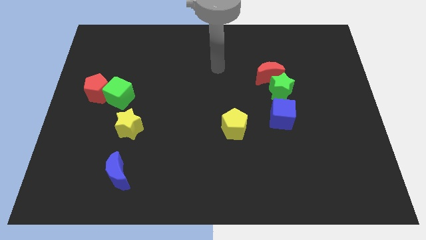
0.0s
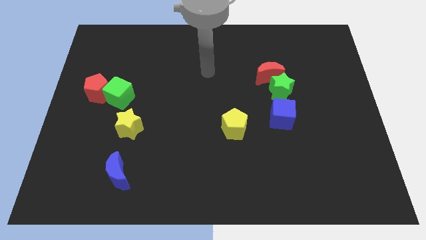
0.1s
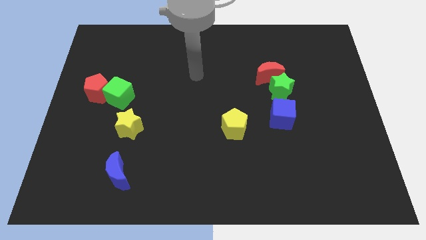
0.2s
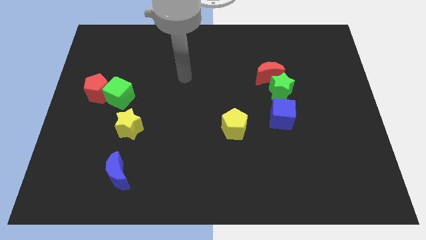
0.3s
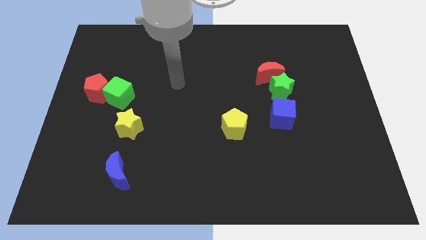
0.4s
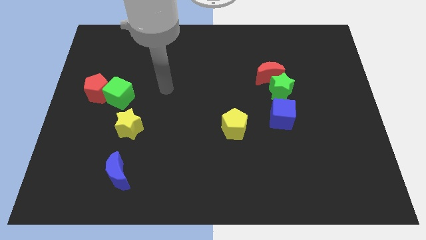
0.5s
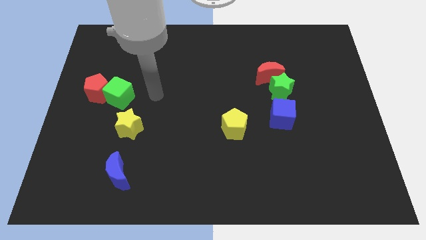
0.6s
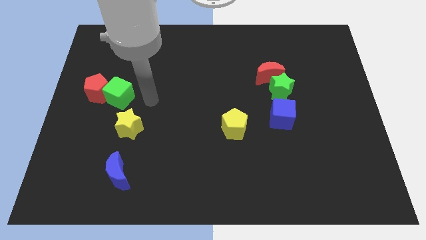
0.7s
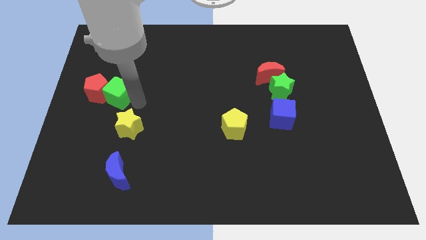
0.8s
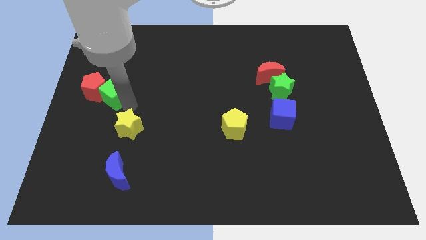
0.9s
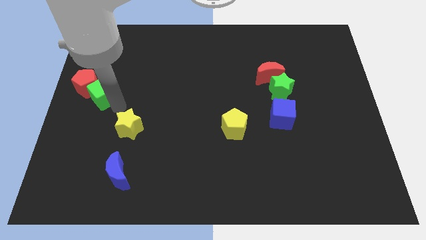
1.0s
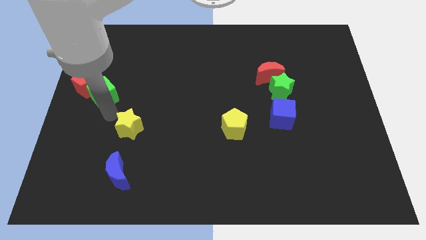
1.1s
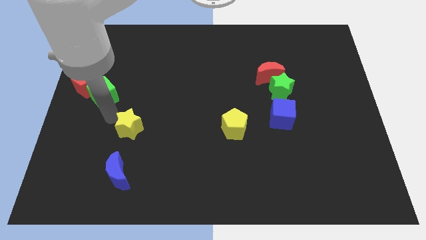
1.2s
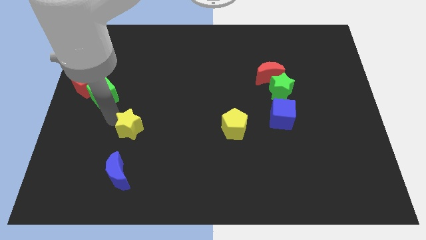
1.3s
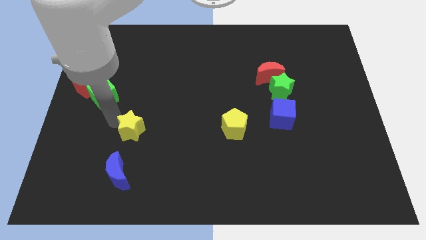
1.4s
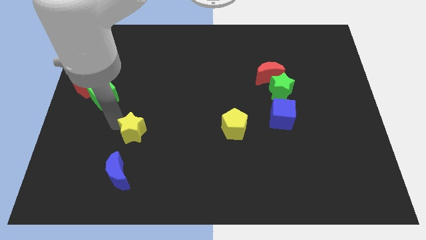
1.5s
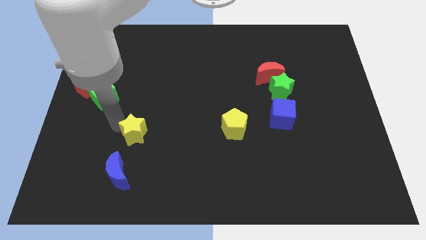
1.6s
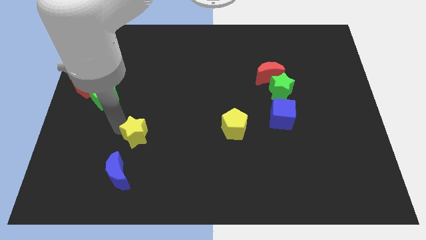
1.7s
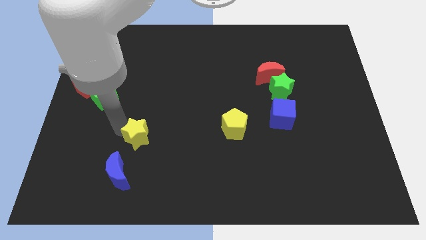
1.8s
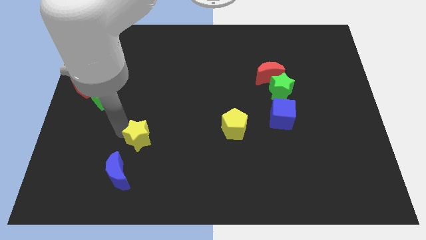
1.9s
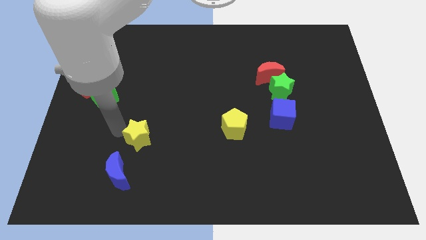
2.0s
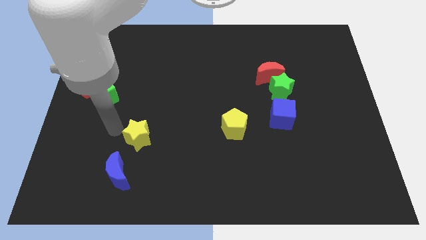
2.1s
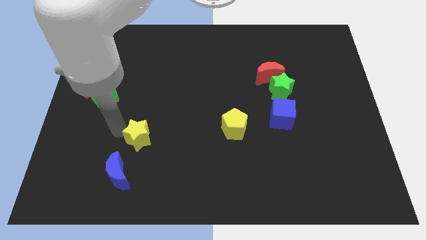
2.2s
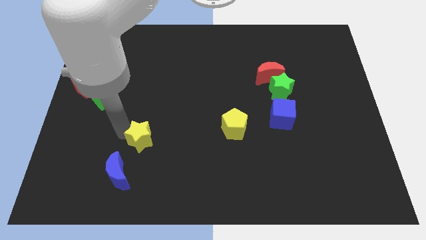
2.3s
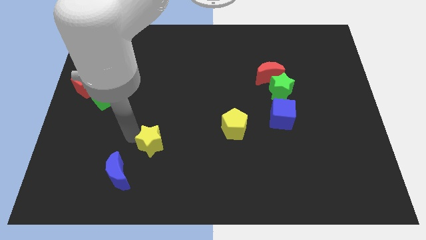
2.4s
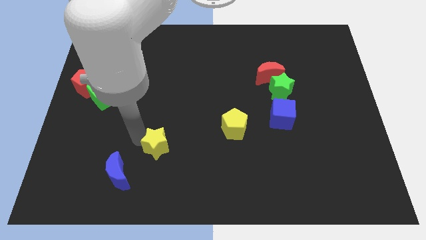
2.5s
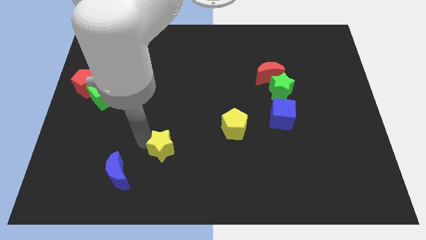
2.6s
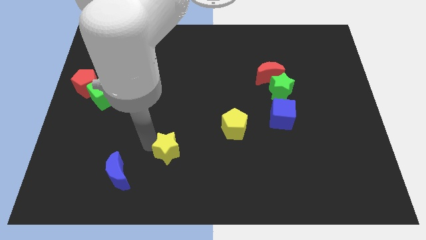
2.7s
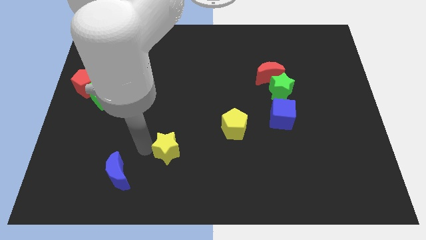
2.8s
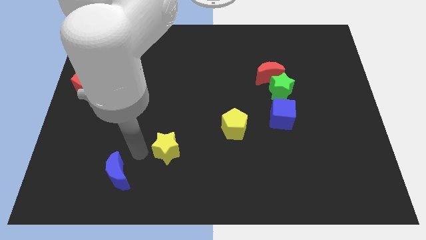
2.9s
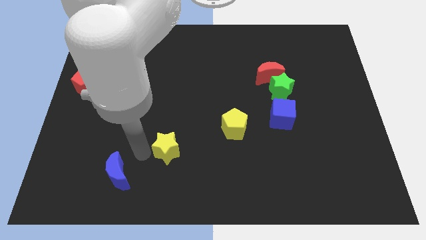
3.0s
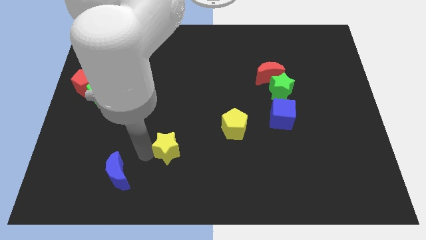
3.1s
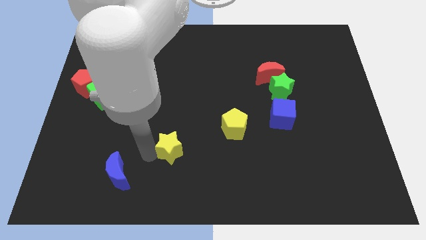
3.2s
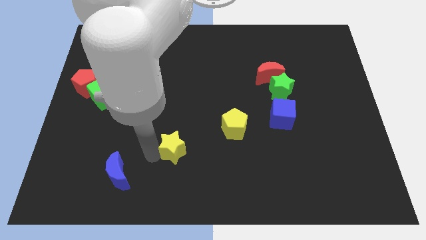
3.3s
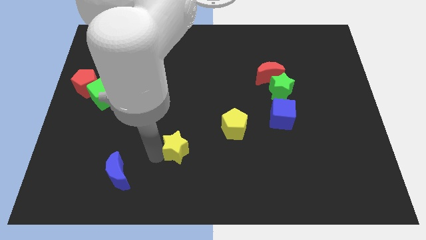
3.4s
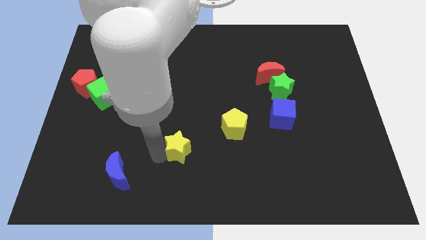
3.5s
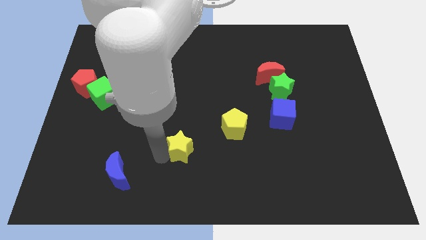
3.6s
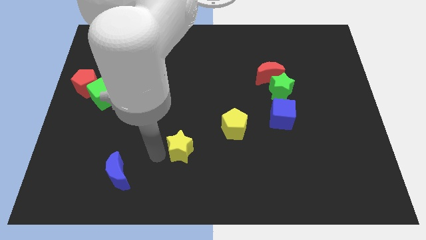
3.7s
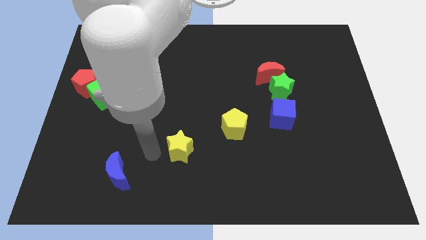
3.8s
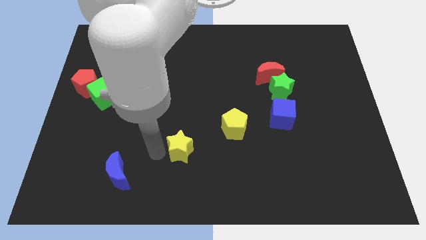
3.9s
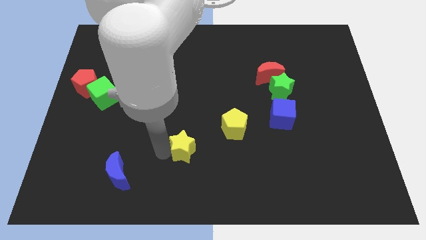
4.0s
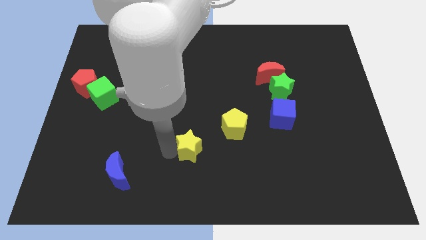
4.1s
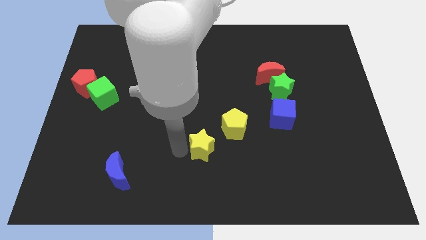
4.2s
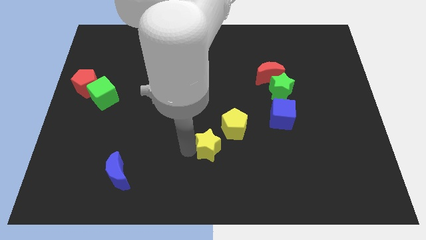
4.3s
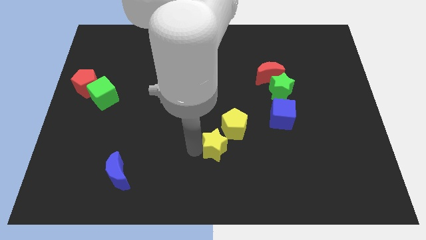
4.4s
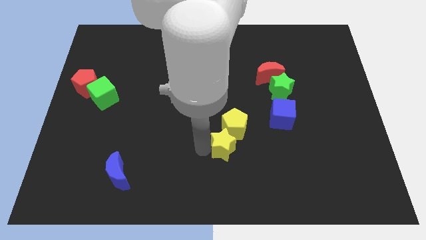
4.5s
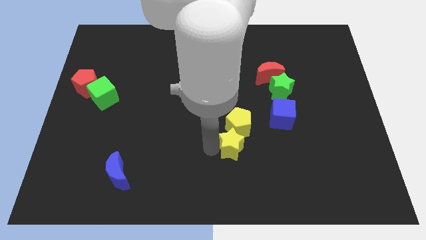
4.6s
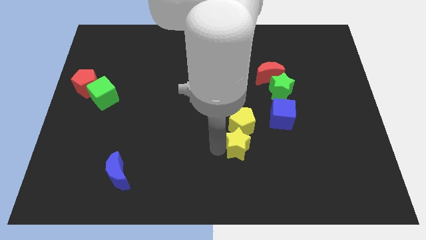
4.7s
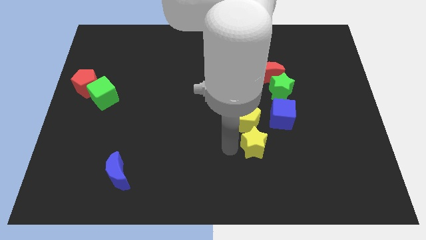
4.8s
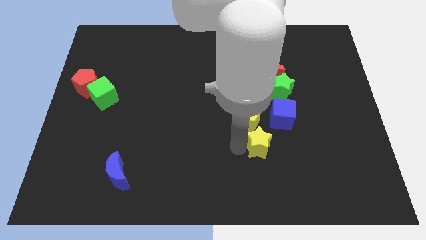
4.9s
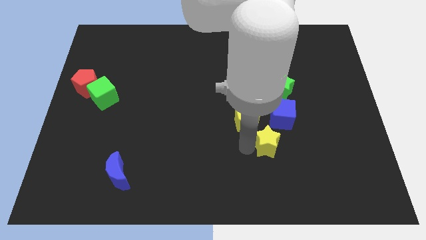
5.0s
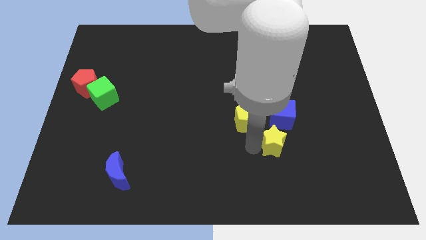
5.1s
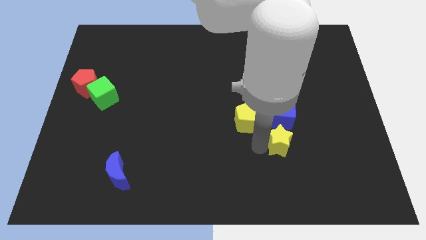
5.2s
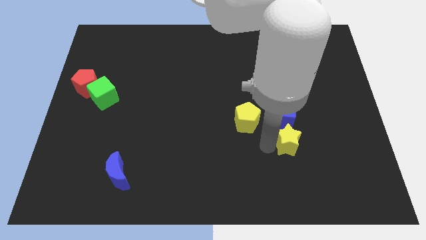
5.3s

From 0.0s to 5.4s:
put the yellow star to the bottom right of the blue cube
